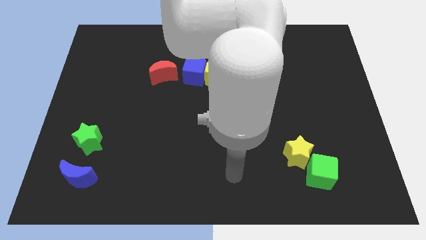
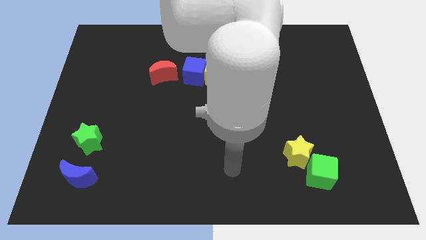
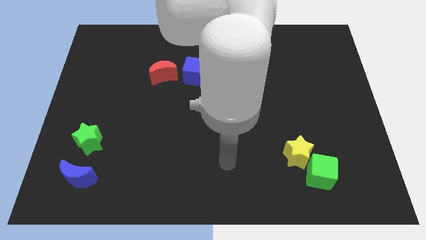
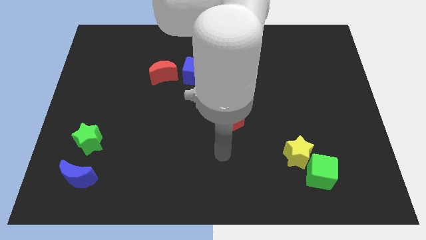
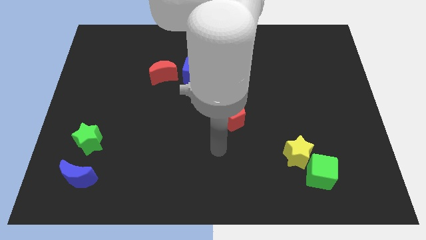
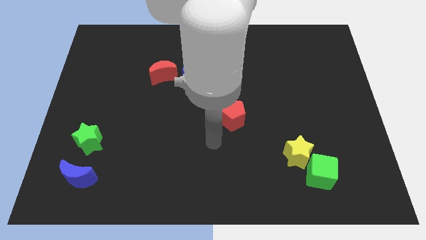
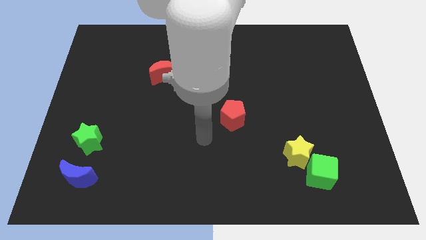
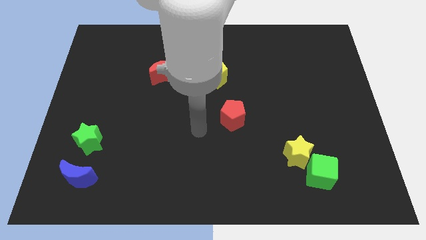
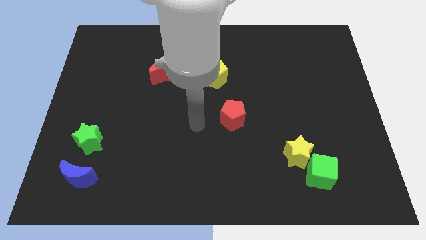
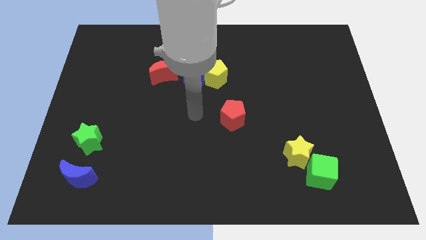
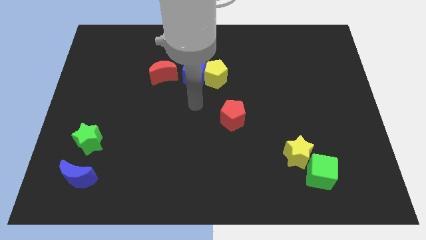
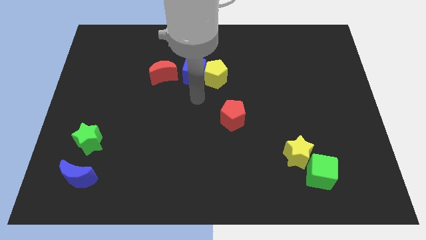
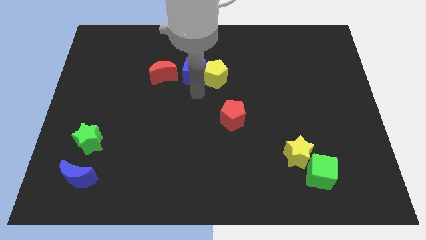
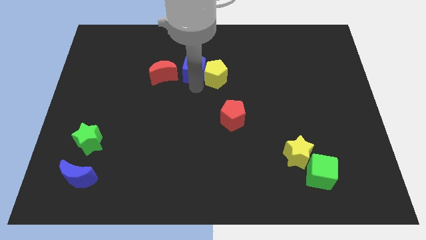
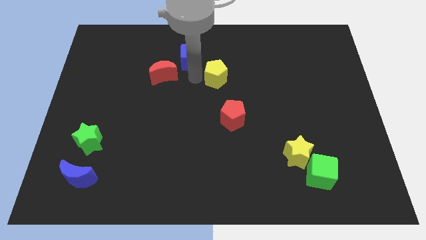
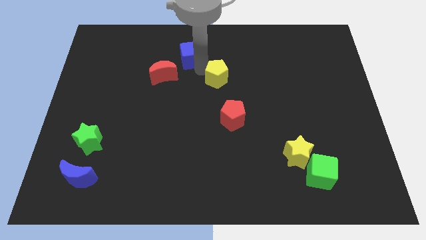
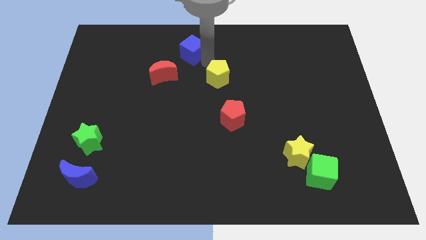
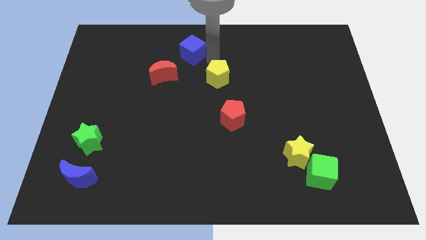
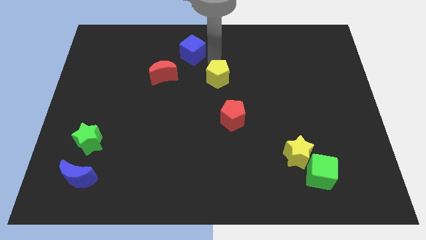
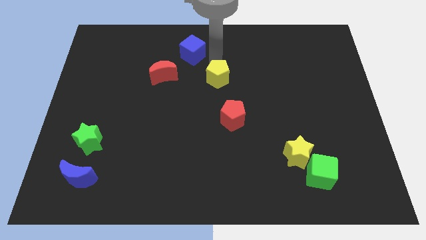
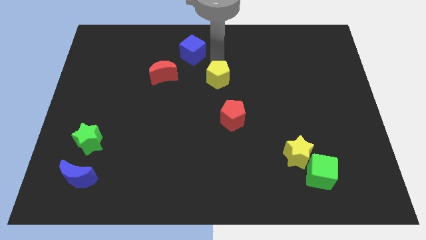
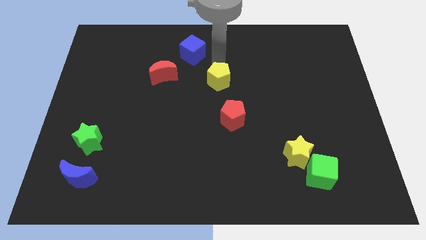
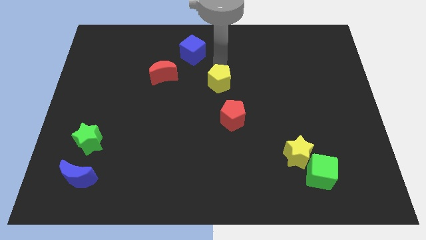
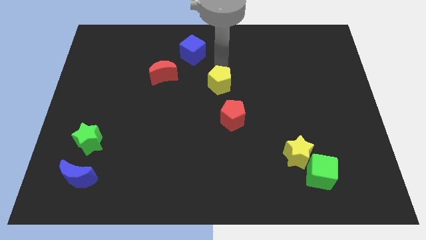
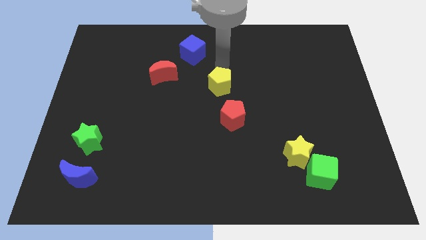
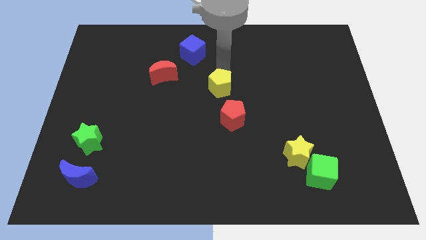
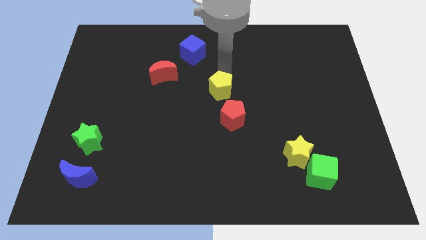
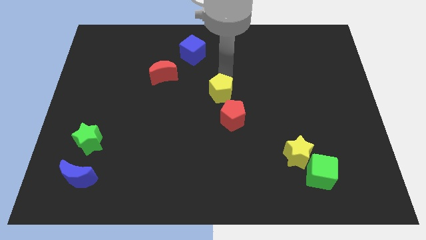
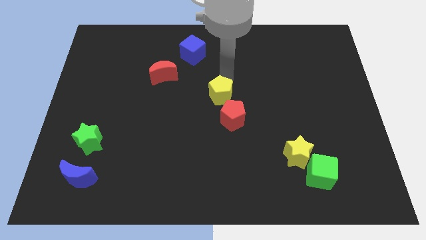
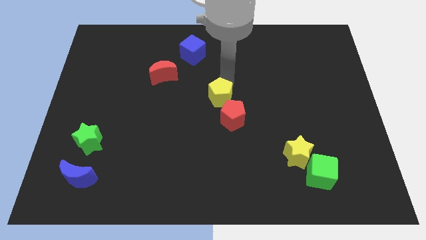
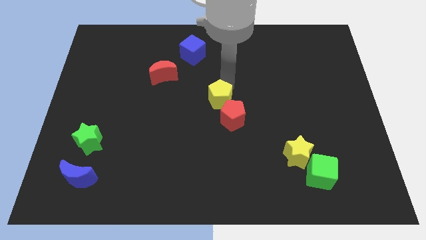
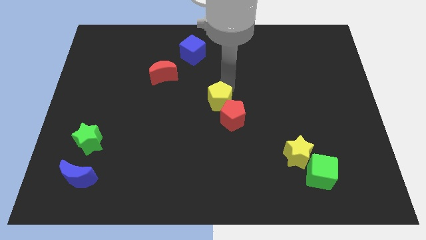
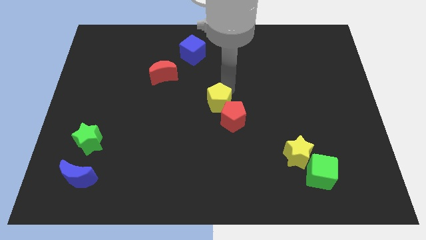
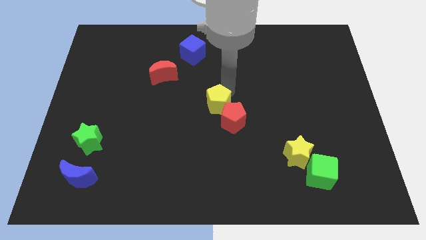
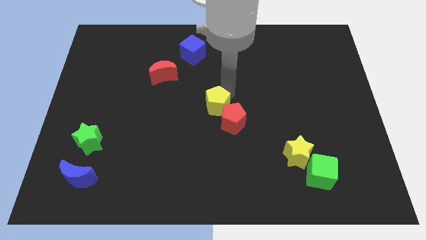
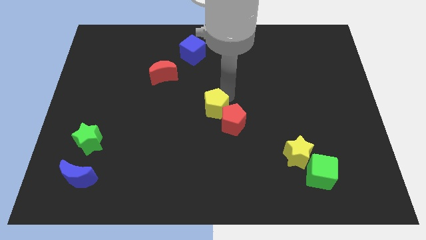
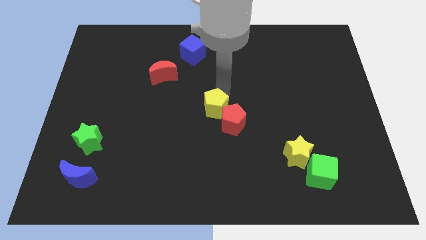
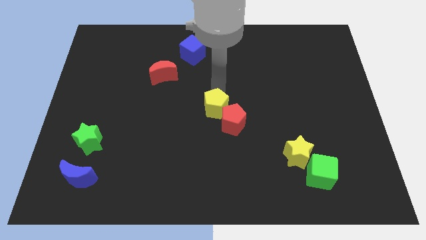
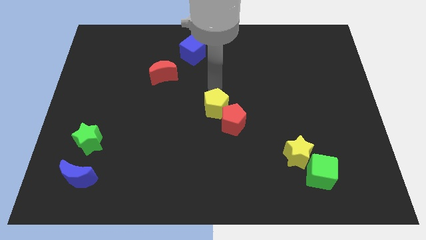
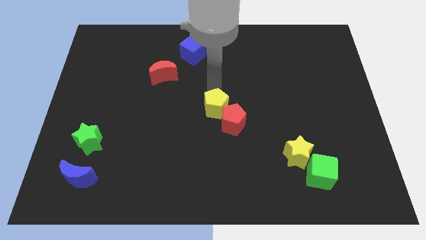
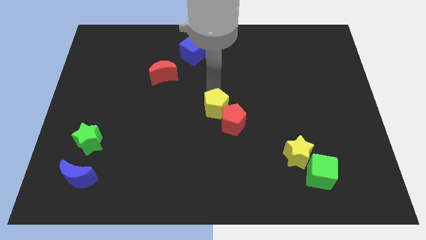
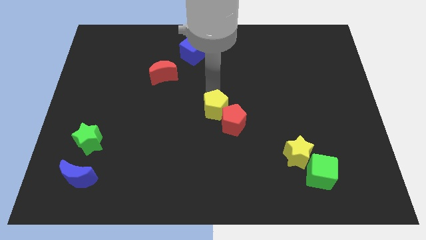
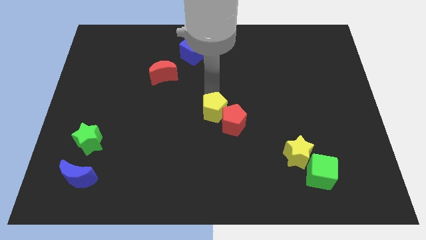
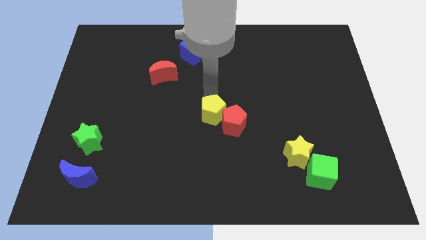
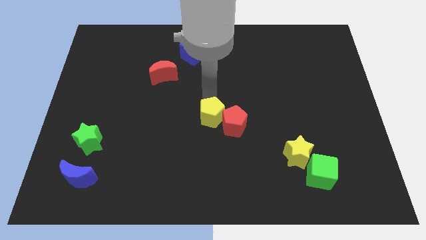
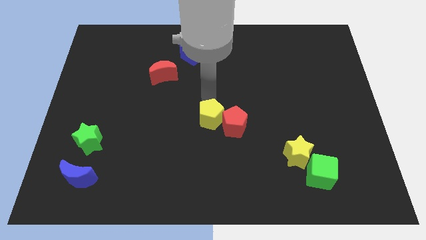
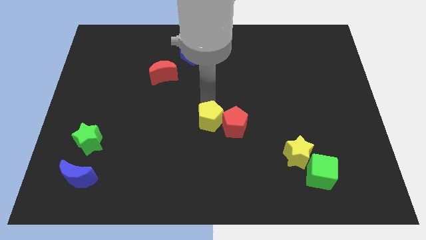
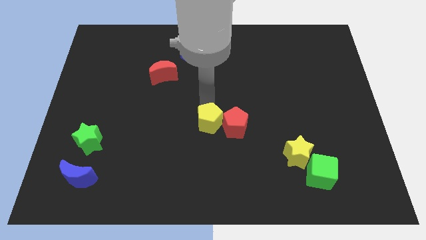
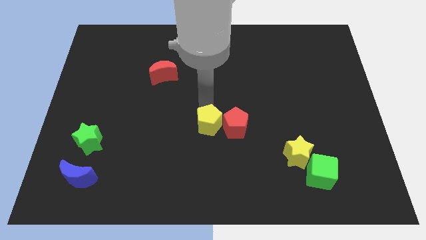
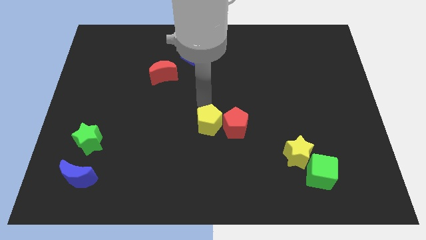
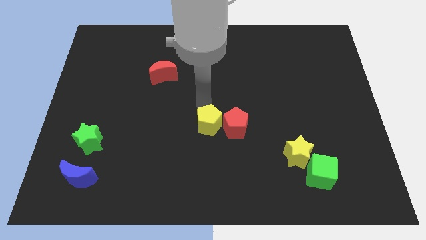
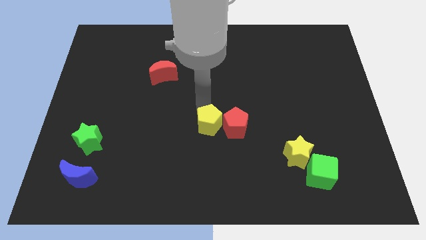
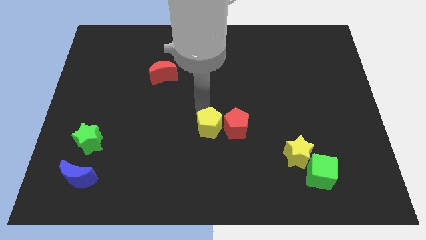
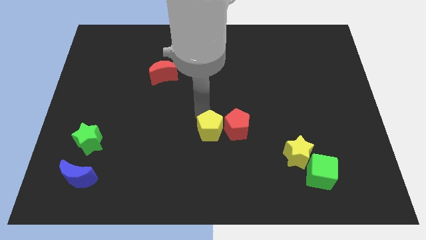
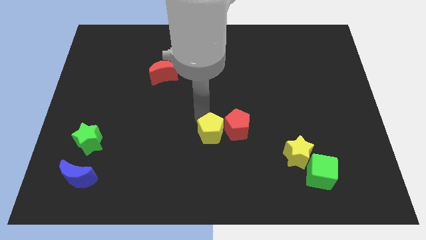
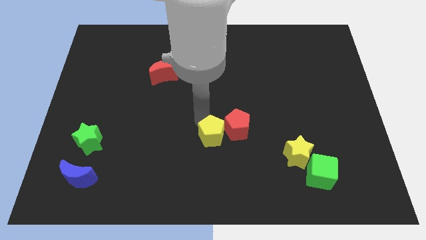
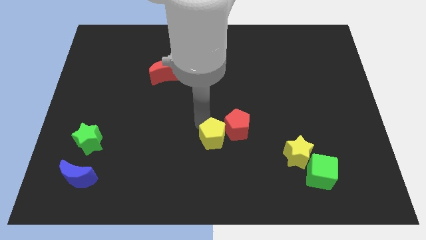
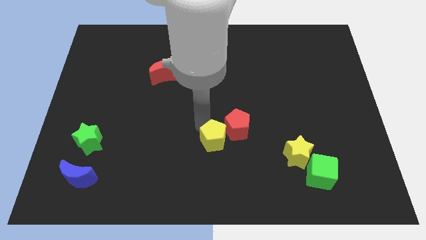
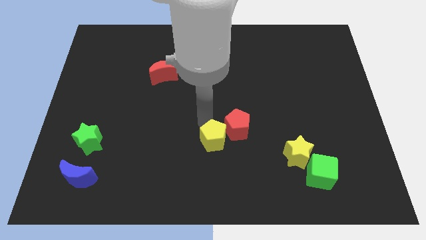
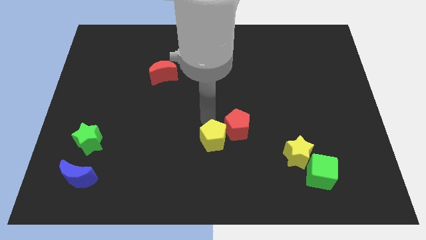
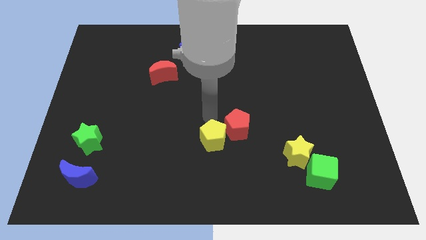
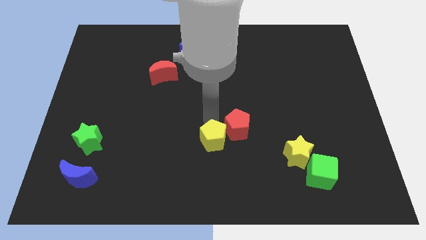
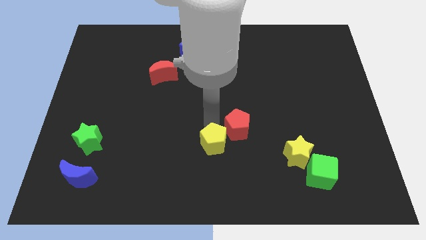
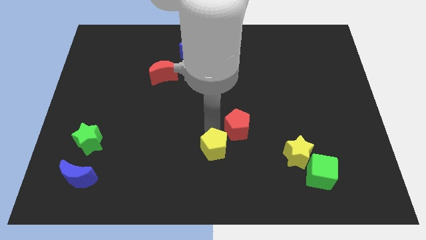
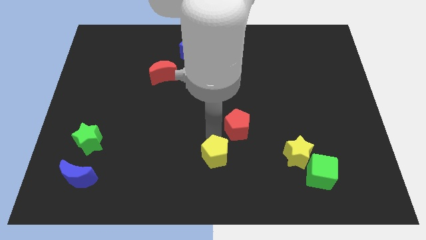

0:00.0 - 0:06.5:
move the yellow pentagon to the bottom side
